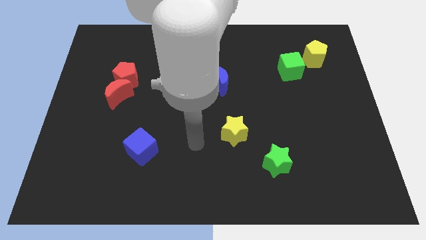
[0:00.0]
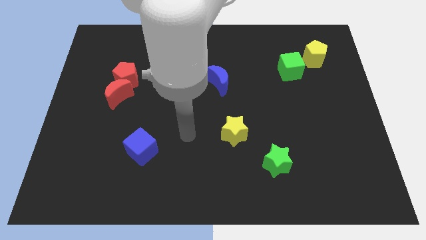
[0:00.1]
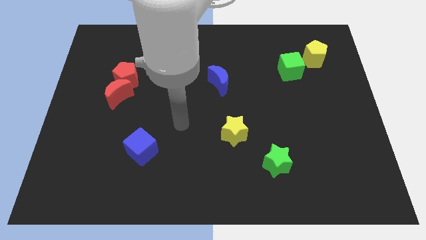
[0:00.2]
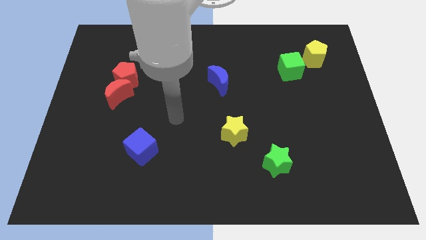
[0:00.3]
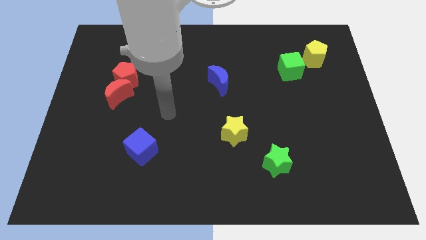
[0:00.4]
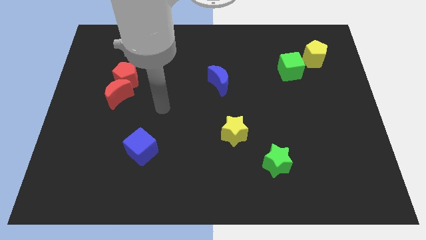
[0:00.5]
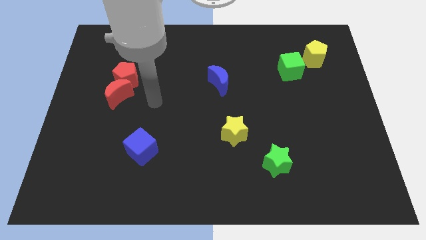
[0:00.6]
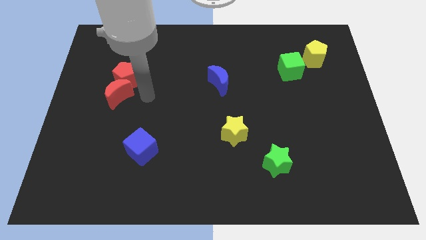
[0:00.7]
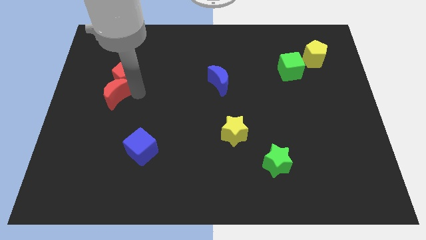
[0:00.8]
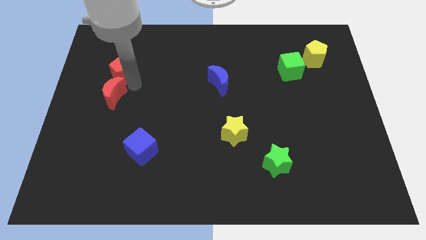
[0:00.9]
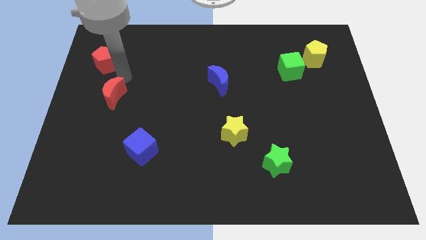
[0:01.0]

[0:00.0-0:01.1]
separate the red moon from the red pentagon

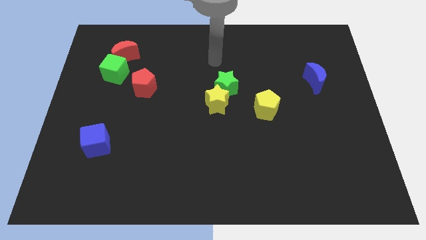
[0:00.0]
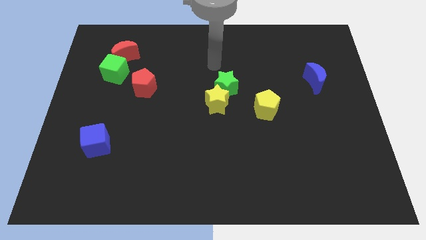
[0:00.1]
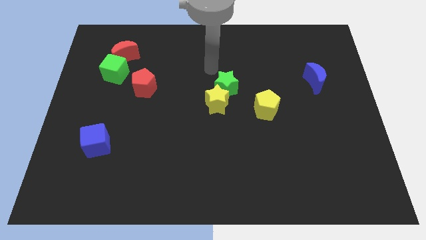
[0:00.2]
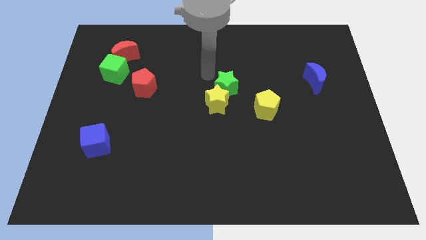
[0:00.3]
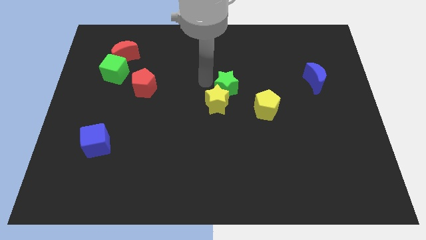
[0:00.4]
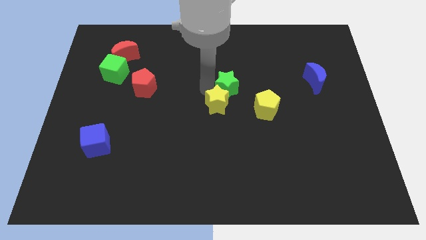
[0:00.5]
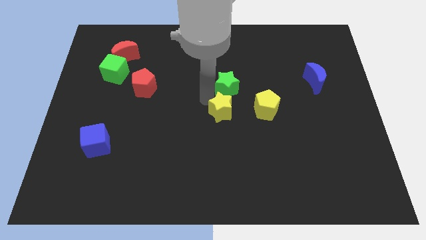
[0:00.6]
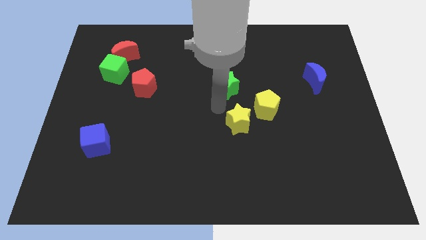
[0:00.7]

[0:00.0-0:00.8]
separate the green star from the yellow star

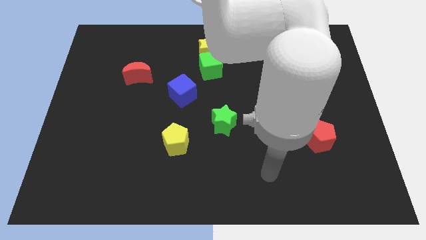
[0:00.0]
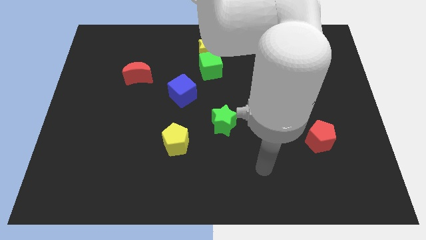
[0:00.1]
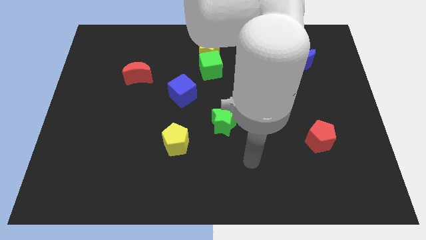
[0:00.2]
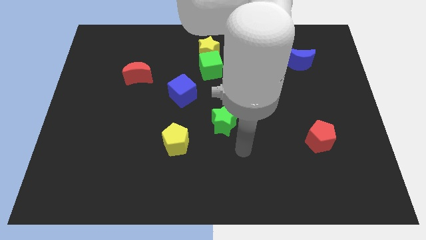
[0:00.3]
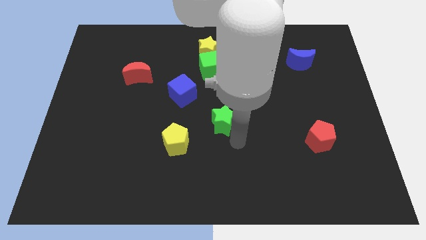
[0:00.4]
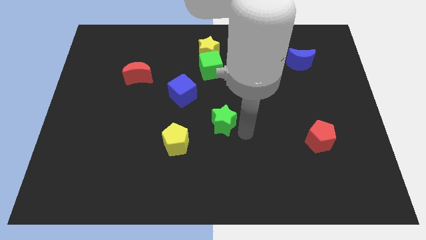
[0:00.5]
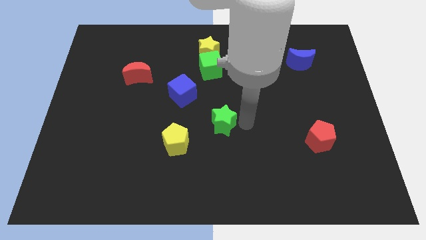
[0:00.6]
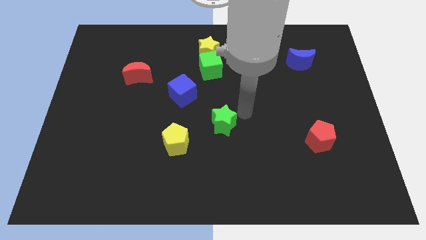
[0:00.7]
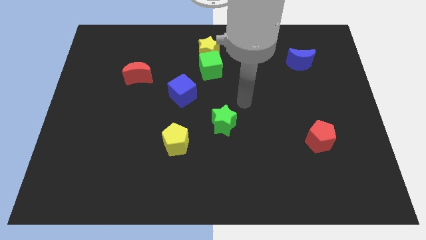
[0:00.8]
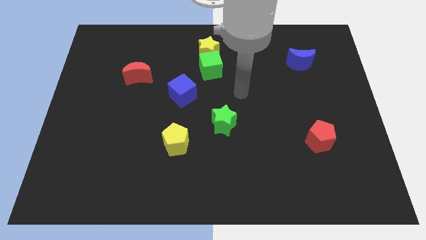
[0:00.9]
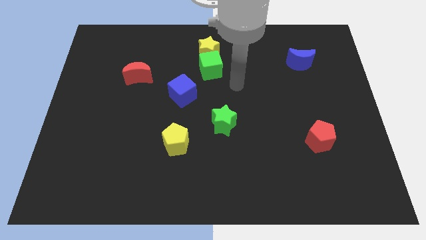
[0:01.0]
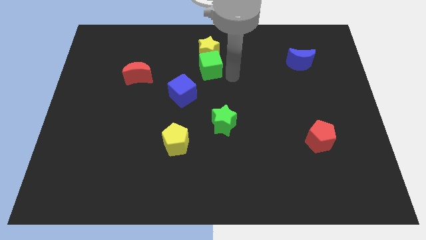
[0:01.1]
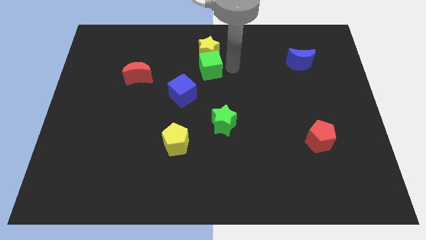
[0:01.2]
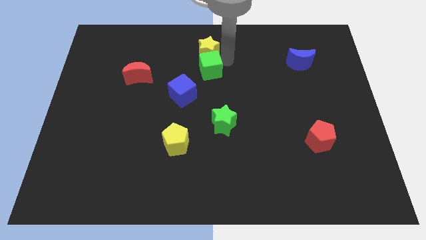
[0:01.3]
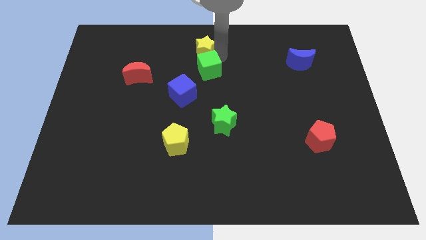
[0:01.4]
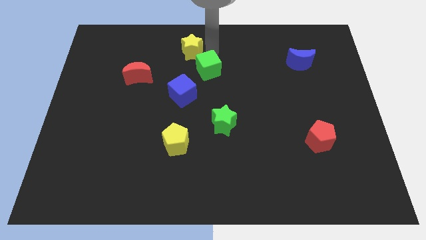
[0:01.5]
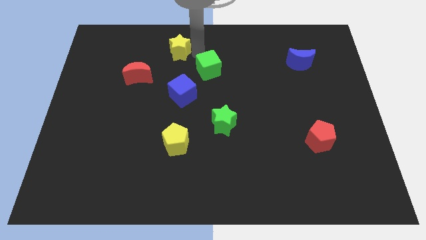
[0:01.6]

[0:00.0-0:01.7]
move the green cube away from the yellow star

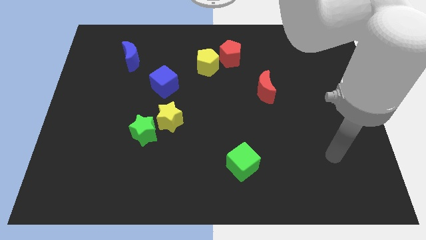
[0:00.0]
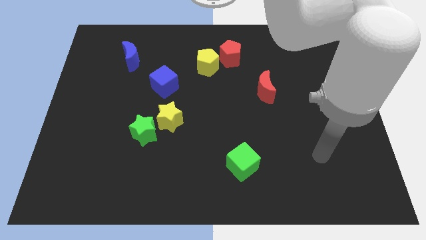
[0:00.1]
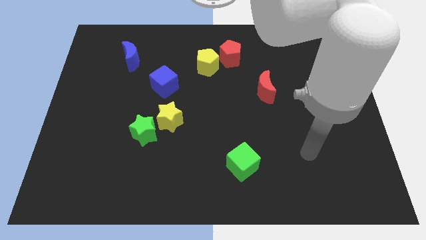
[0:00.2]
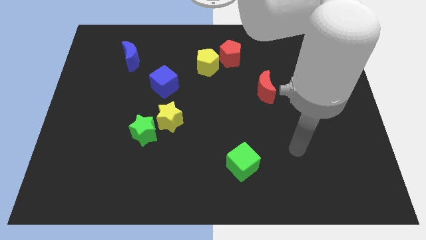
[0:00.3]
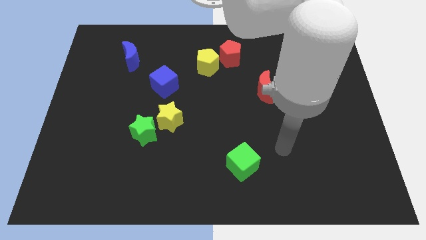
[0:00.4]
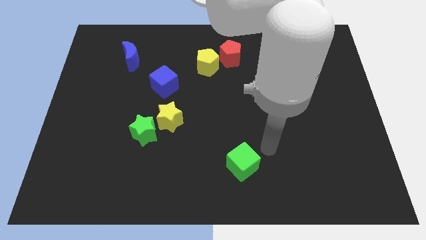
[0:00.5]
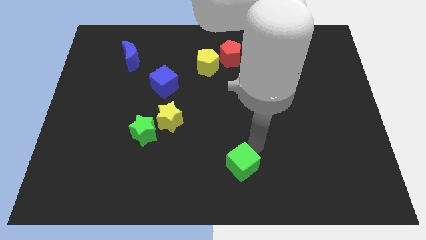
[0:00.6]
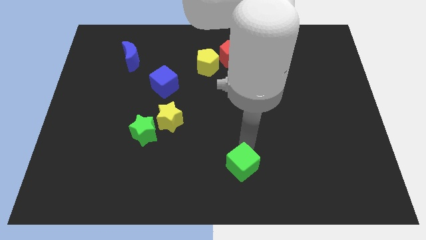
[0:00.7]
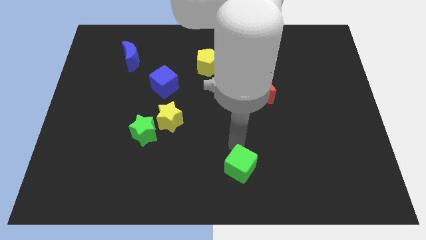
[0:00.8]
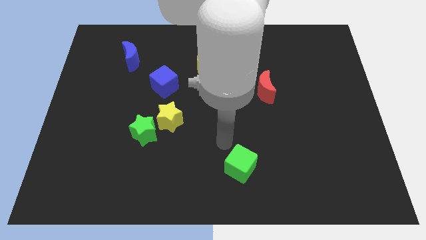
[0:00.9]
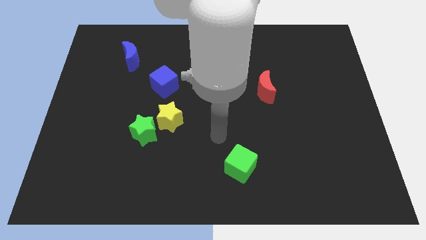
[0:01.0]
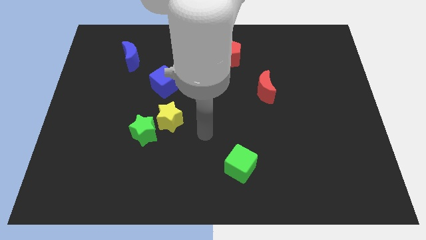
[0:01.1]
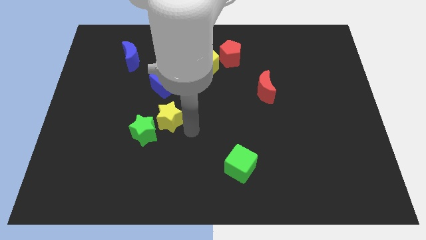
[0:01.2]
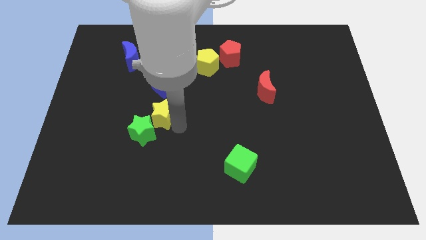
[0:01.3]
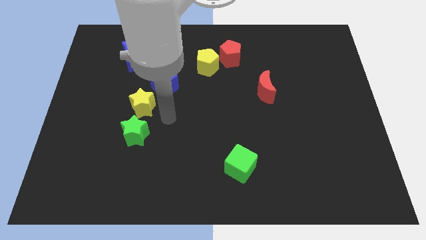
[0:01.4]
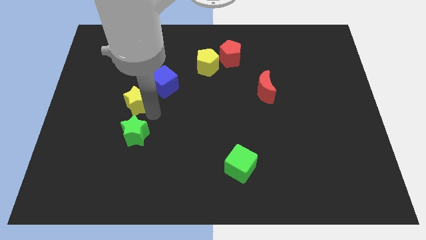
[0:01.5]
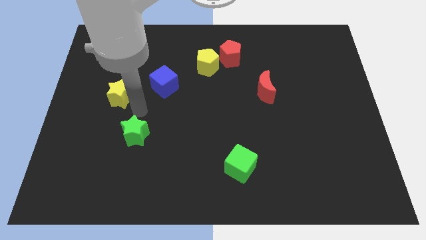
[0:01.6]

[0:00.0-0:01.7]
move the green star away from the yellow star

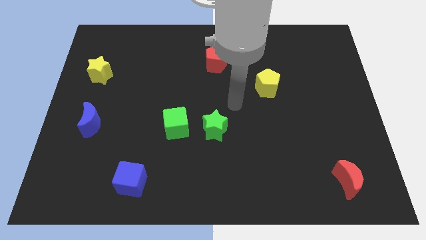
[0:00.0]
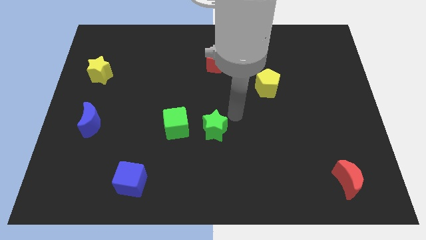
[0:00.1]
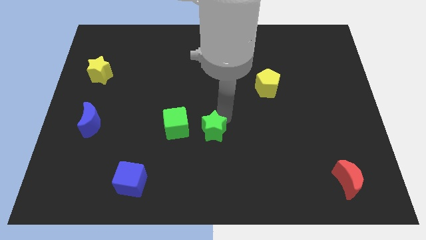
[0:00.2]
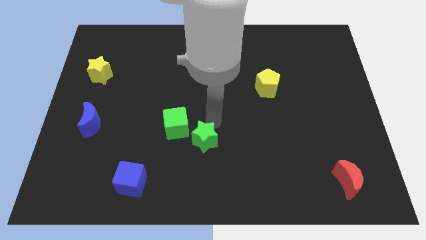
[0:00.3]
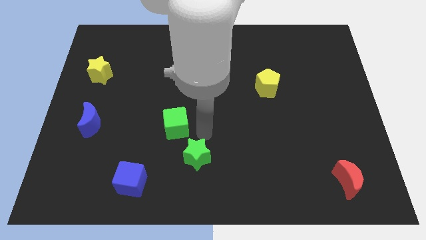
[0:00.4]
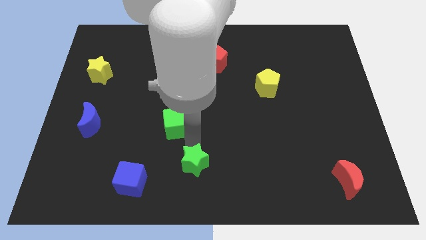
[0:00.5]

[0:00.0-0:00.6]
pull the green cube apart from the green star

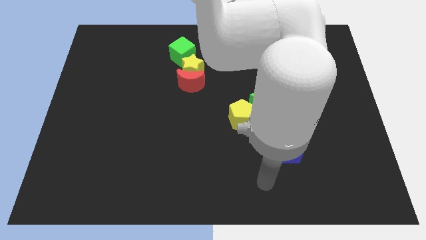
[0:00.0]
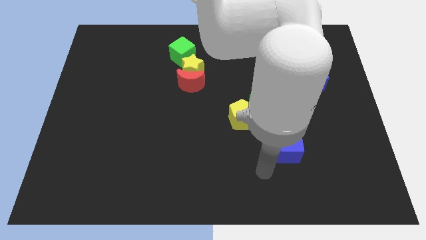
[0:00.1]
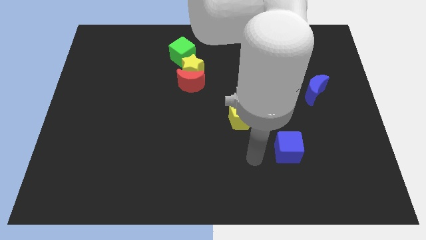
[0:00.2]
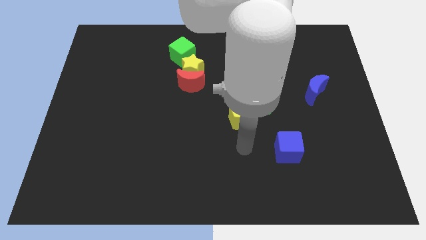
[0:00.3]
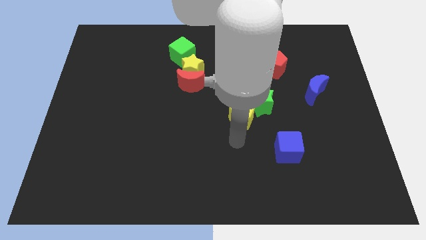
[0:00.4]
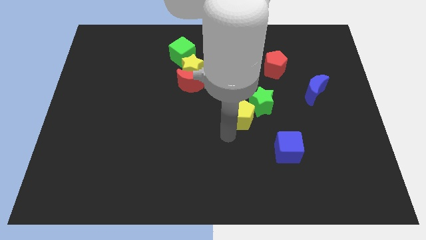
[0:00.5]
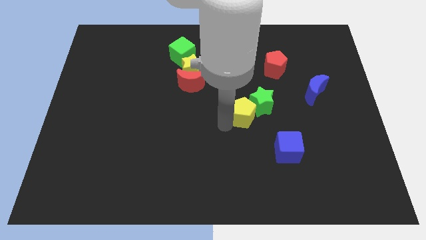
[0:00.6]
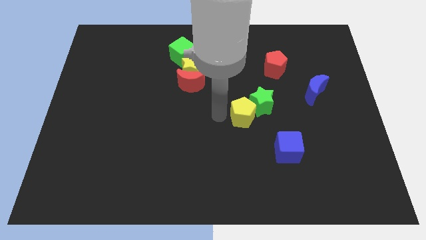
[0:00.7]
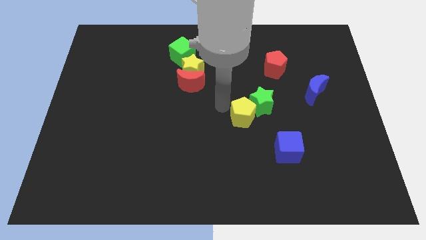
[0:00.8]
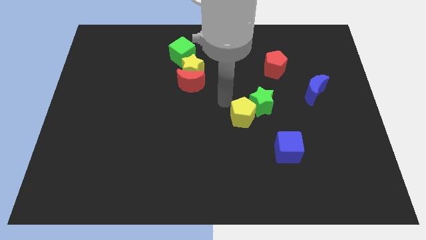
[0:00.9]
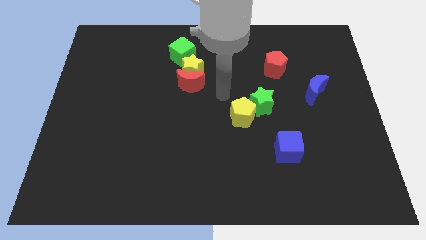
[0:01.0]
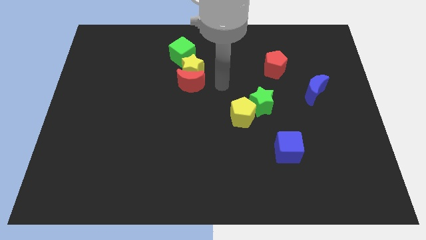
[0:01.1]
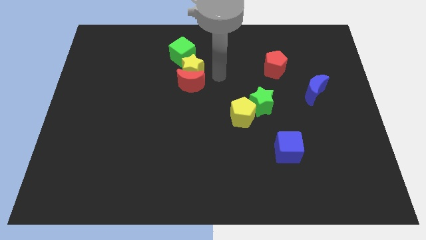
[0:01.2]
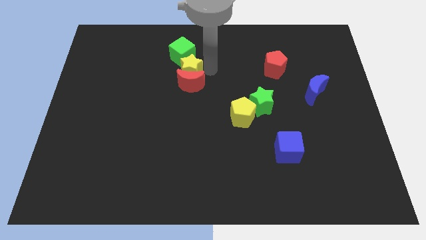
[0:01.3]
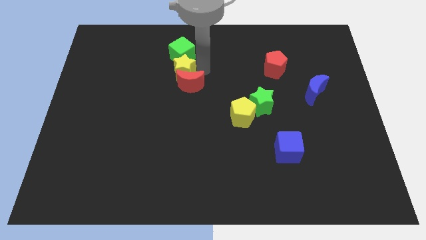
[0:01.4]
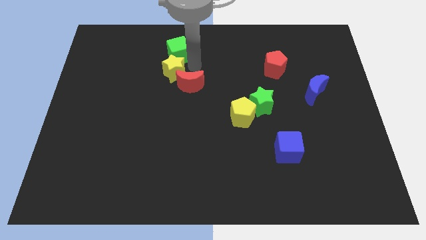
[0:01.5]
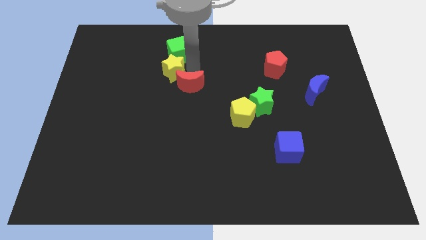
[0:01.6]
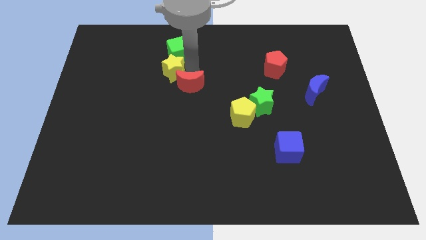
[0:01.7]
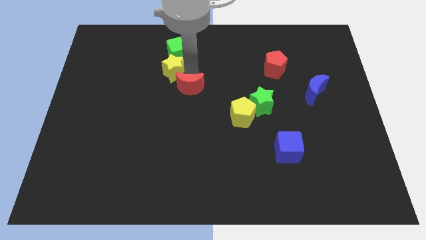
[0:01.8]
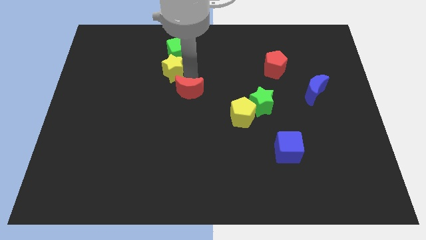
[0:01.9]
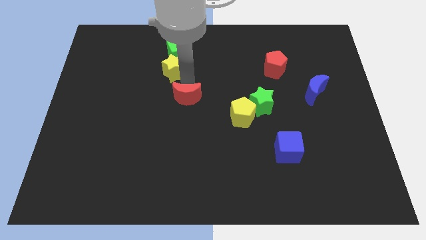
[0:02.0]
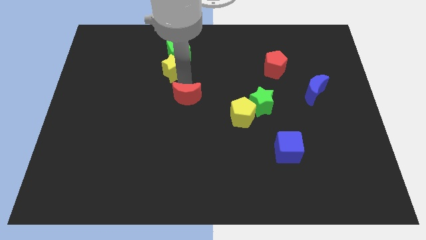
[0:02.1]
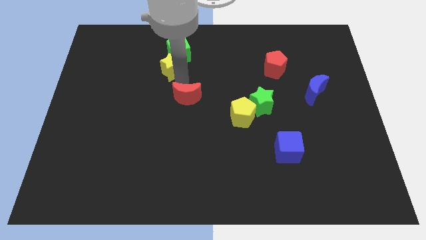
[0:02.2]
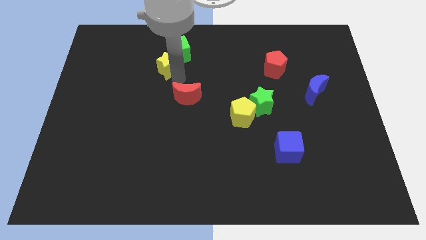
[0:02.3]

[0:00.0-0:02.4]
separate the red moon from the yellow star

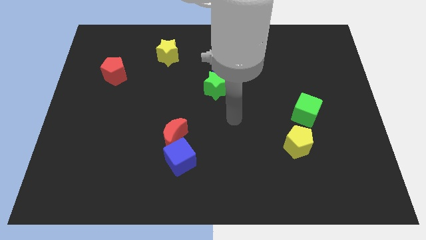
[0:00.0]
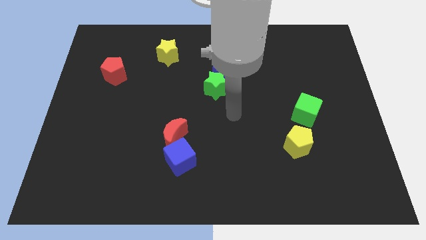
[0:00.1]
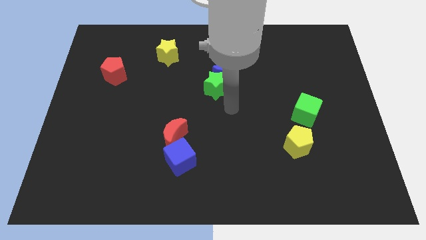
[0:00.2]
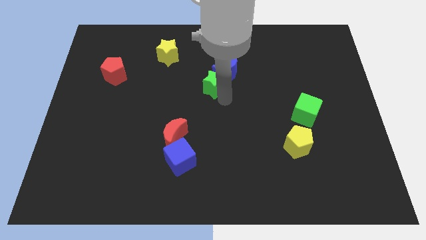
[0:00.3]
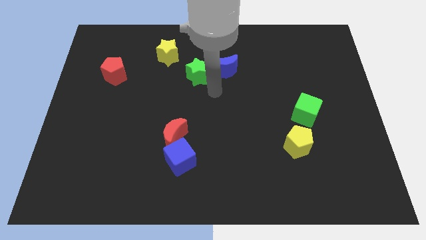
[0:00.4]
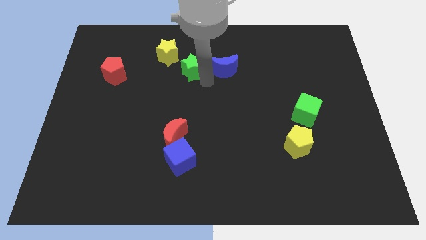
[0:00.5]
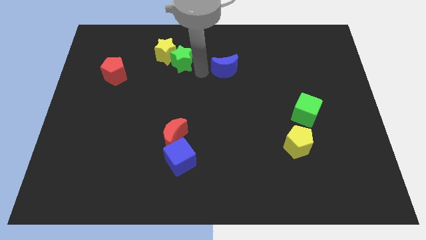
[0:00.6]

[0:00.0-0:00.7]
pull the blue moon apart from the green star

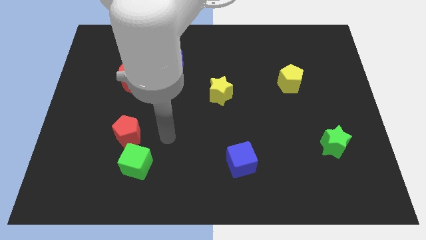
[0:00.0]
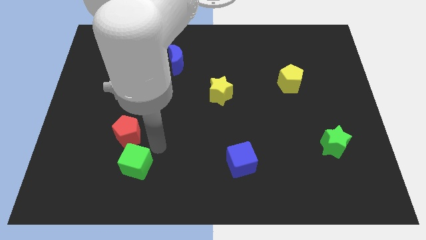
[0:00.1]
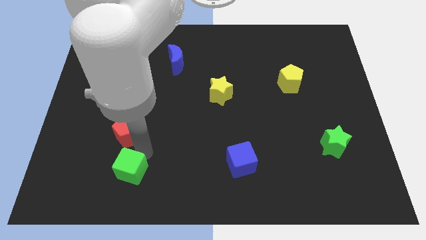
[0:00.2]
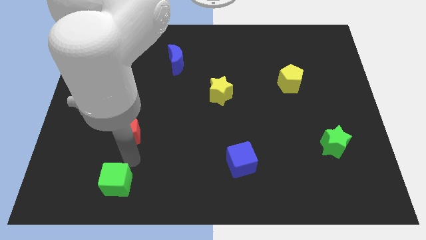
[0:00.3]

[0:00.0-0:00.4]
separate the red pentagon from the green cube
